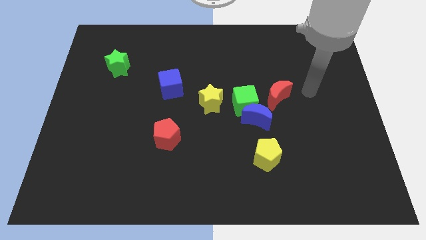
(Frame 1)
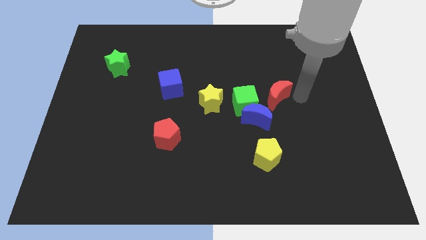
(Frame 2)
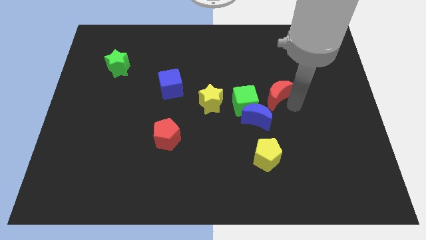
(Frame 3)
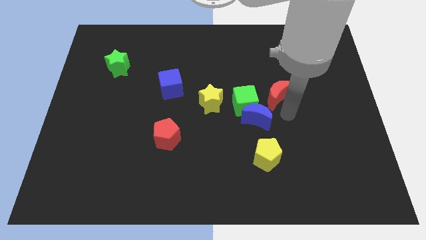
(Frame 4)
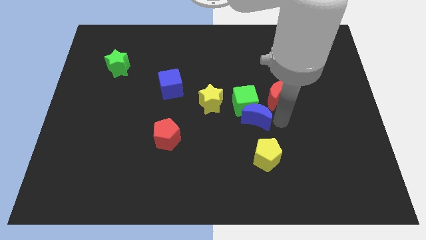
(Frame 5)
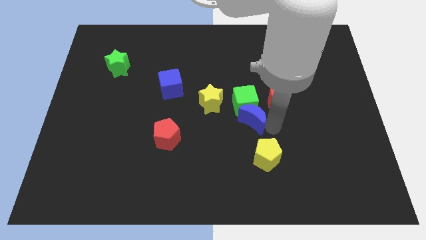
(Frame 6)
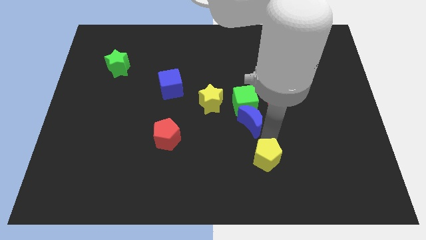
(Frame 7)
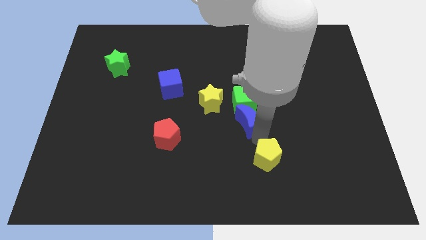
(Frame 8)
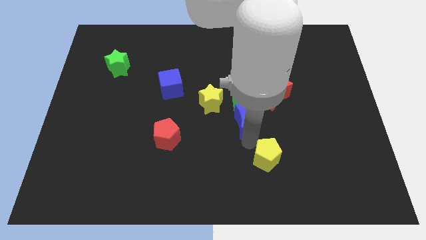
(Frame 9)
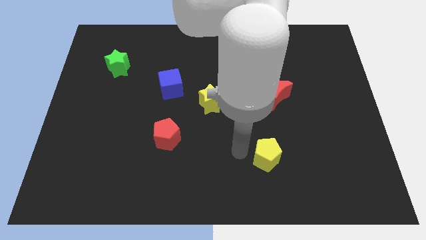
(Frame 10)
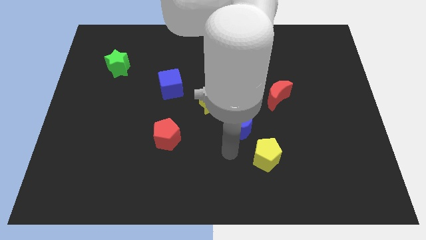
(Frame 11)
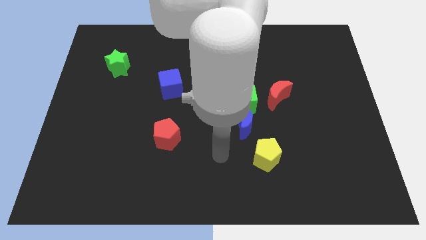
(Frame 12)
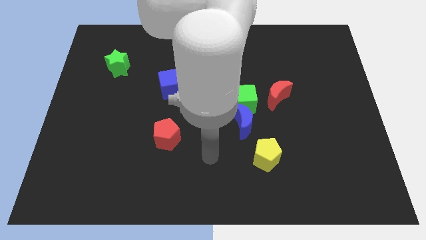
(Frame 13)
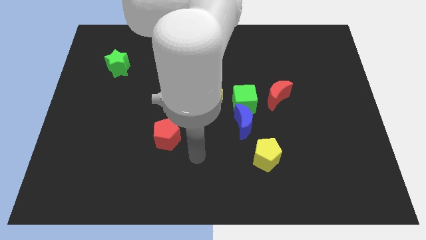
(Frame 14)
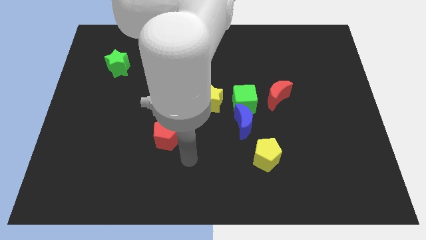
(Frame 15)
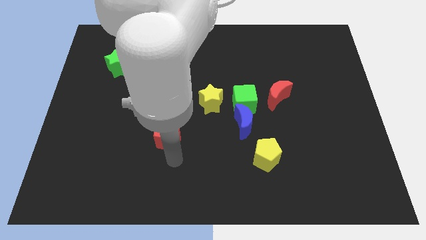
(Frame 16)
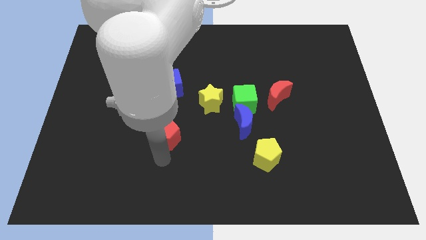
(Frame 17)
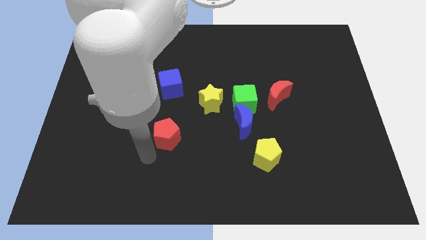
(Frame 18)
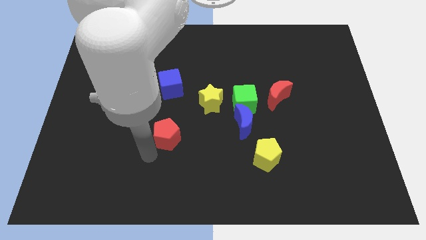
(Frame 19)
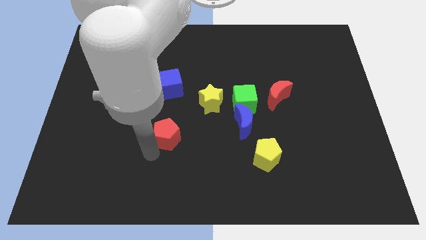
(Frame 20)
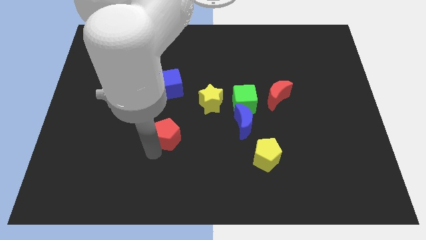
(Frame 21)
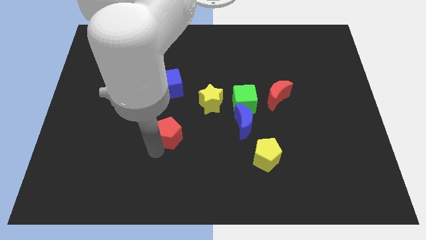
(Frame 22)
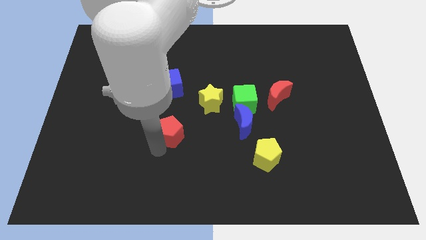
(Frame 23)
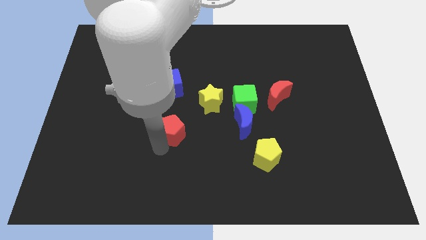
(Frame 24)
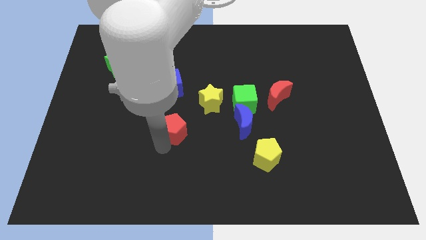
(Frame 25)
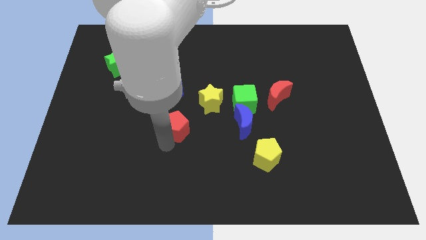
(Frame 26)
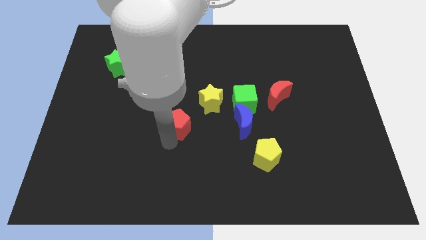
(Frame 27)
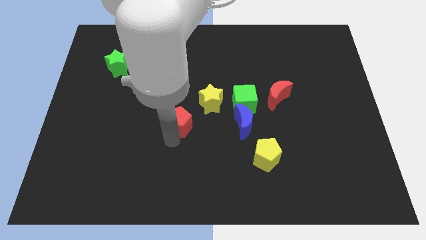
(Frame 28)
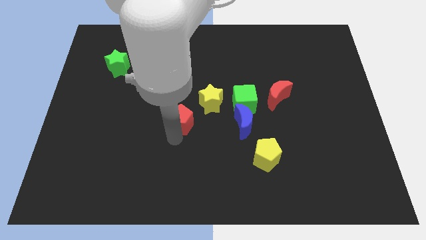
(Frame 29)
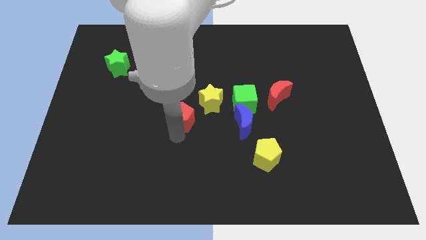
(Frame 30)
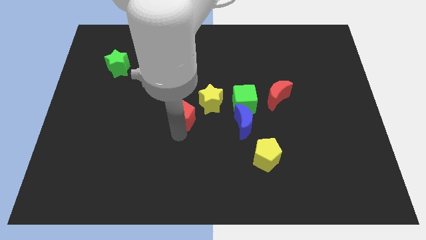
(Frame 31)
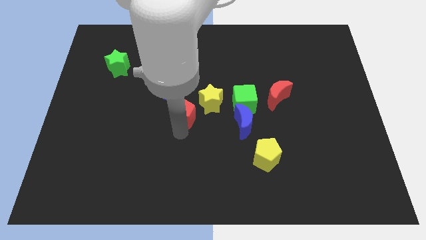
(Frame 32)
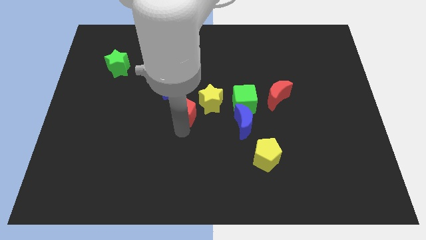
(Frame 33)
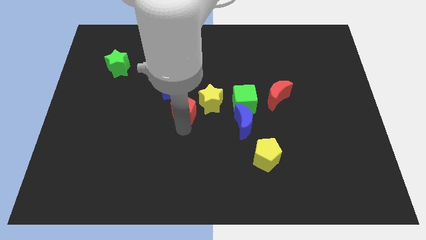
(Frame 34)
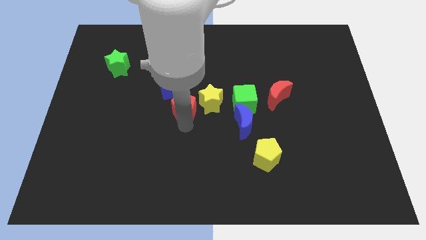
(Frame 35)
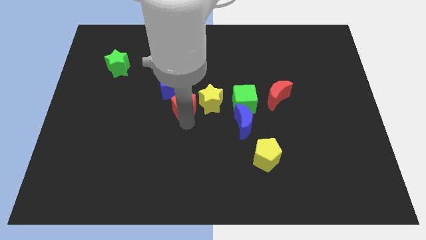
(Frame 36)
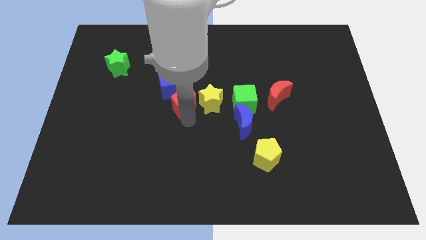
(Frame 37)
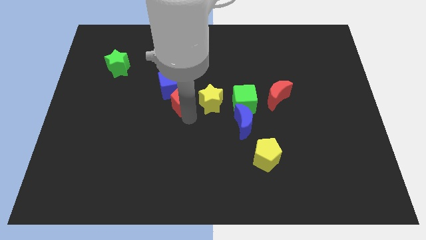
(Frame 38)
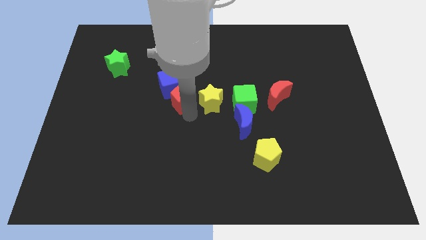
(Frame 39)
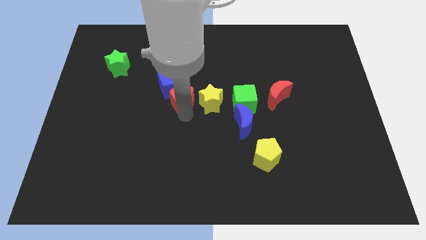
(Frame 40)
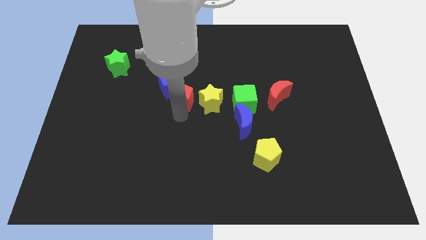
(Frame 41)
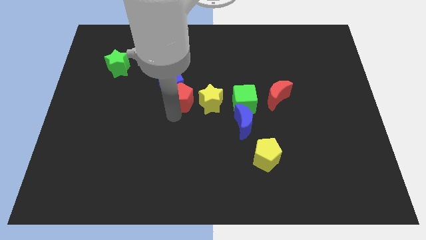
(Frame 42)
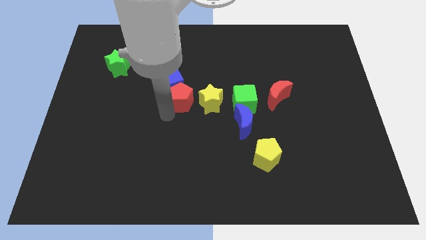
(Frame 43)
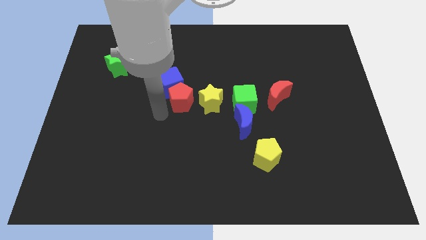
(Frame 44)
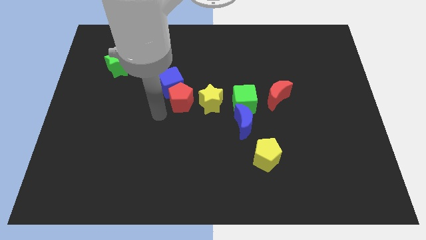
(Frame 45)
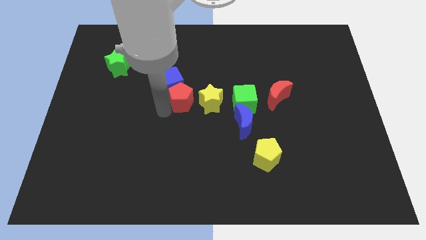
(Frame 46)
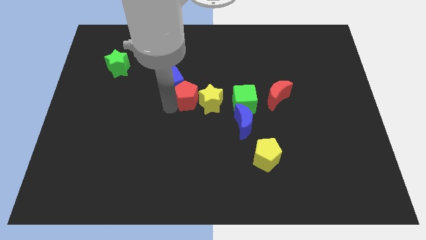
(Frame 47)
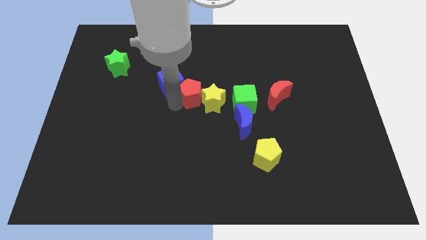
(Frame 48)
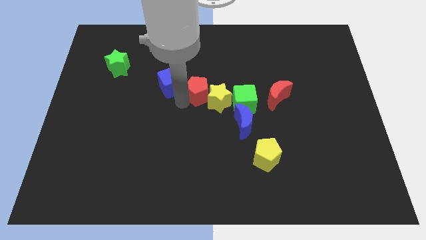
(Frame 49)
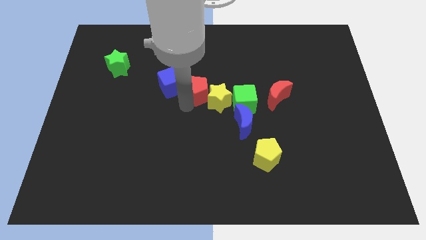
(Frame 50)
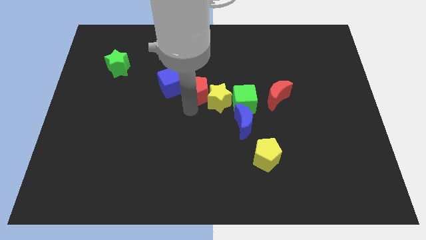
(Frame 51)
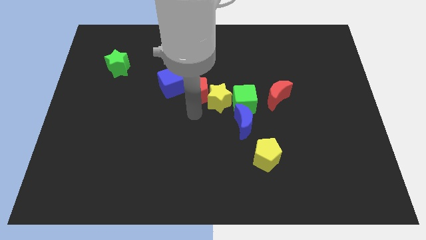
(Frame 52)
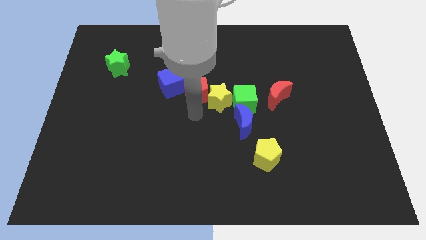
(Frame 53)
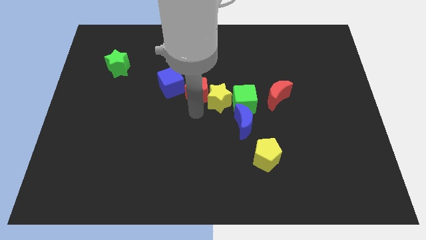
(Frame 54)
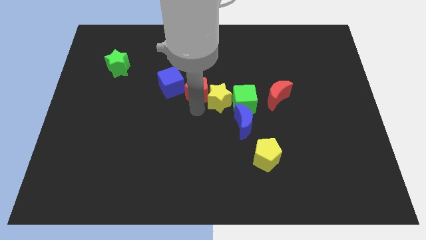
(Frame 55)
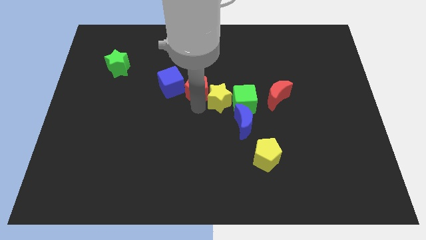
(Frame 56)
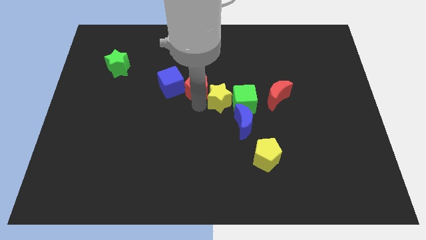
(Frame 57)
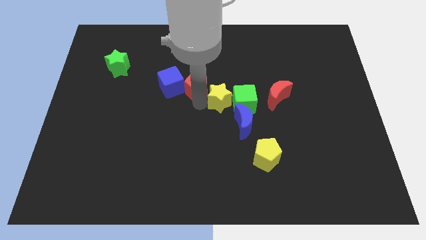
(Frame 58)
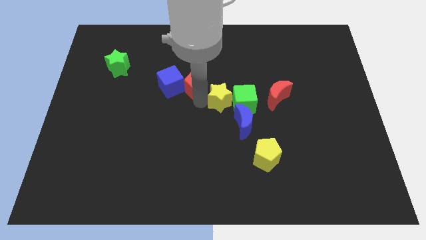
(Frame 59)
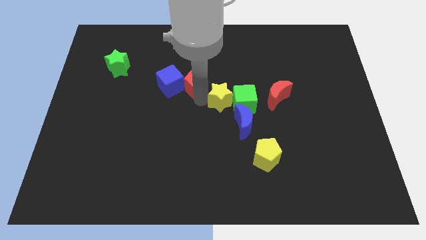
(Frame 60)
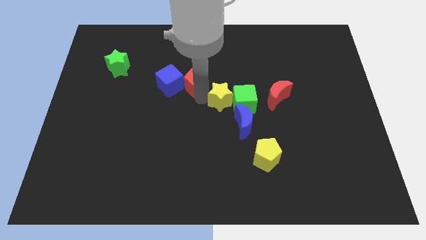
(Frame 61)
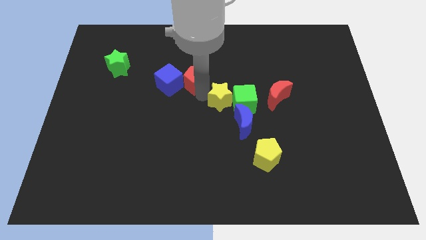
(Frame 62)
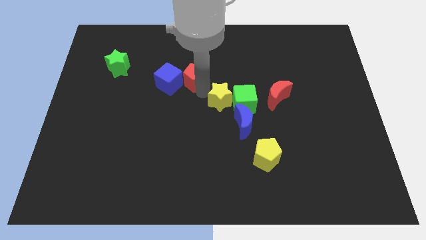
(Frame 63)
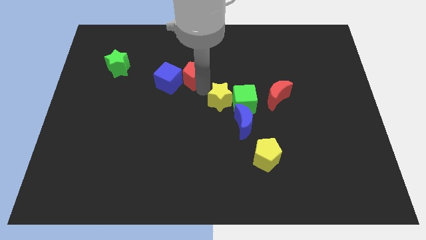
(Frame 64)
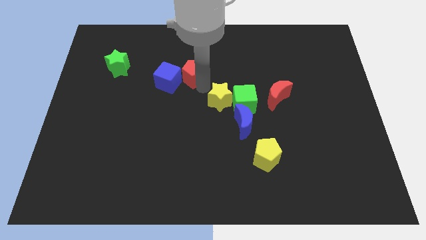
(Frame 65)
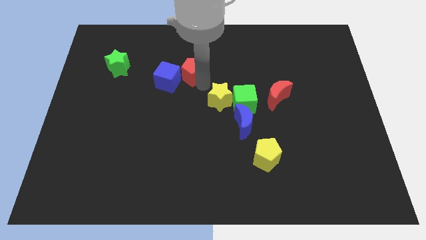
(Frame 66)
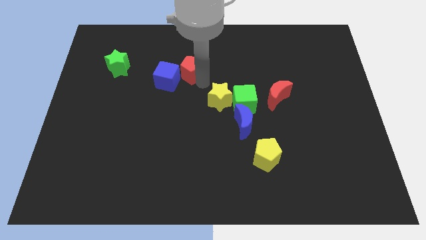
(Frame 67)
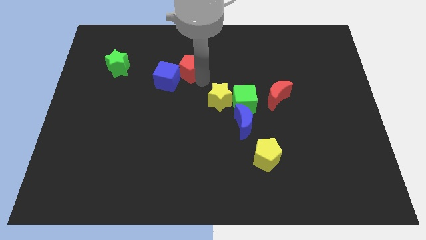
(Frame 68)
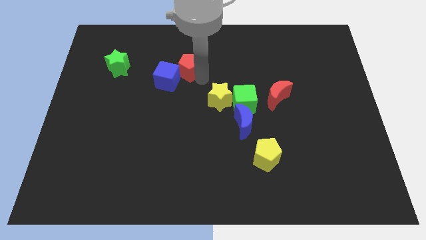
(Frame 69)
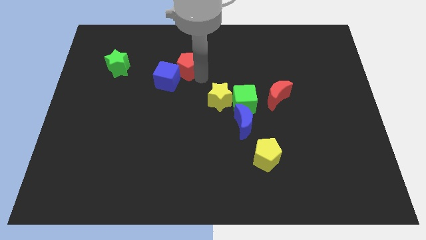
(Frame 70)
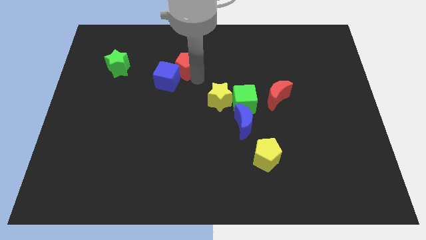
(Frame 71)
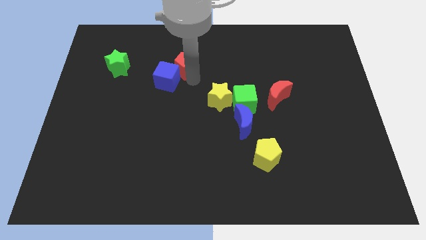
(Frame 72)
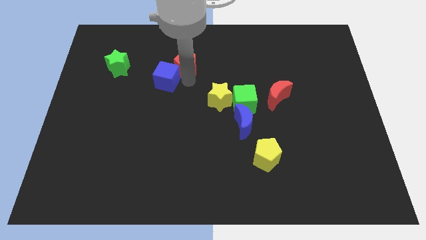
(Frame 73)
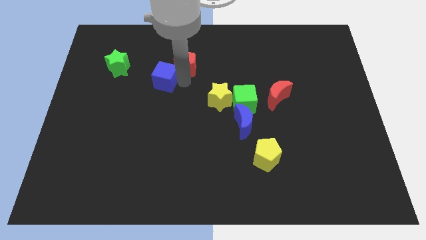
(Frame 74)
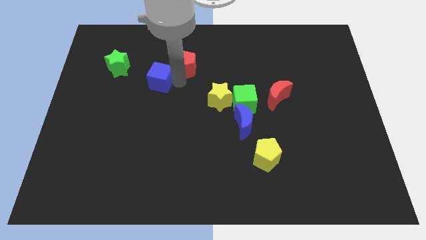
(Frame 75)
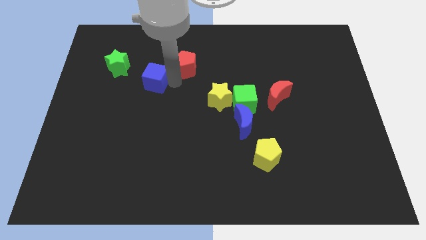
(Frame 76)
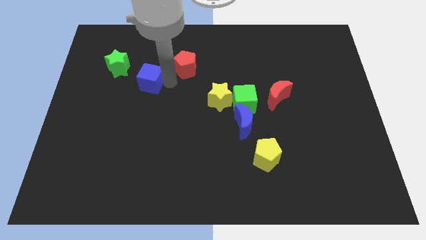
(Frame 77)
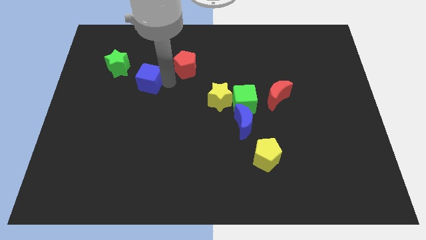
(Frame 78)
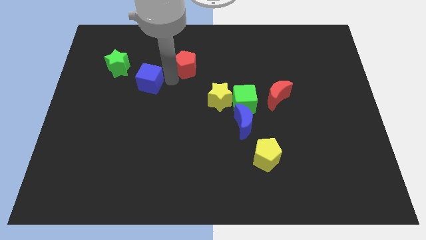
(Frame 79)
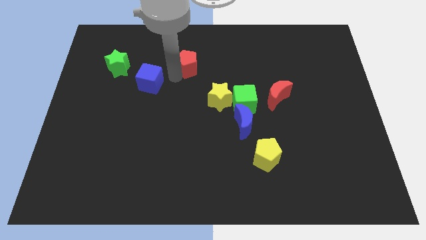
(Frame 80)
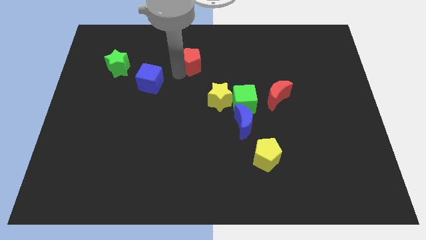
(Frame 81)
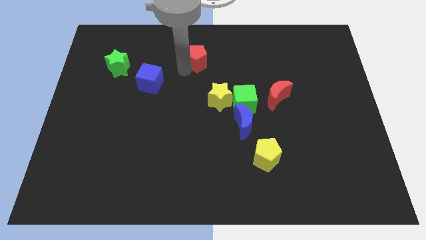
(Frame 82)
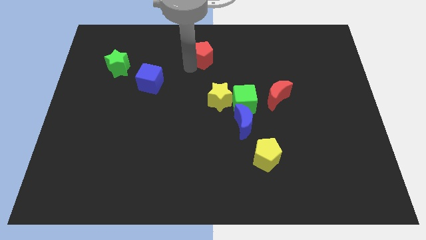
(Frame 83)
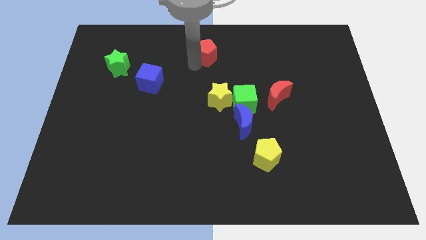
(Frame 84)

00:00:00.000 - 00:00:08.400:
slide the red pentagon to the top
